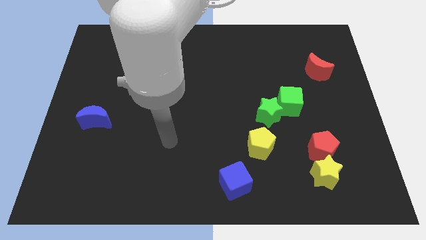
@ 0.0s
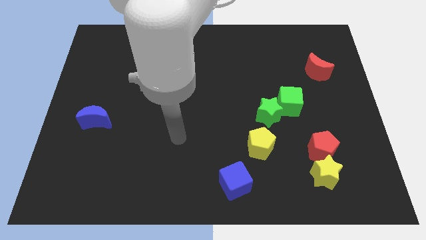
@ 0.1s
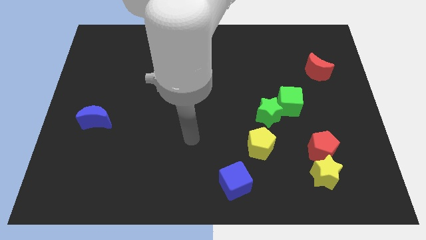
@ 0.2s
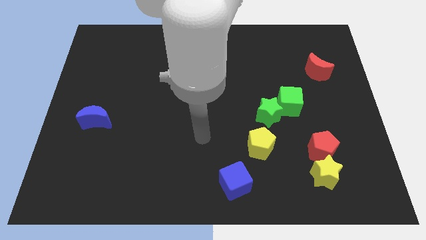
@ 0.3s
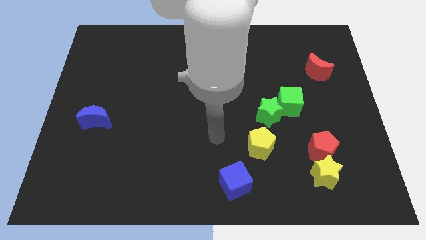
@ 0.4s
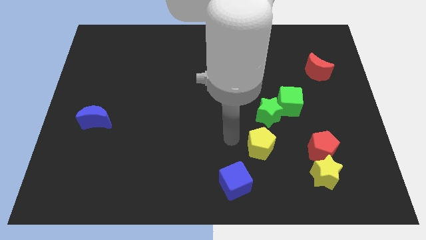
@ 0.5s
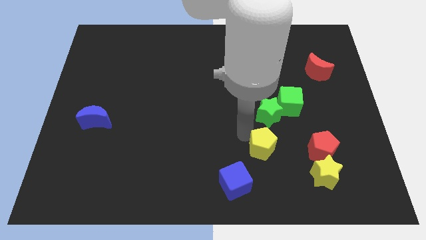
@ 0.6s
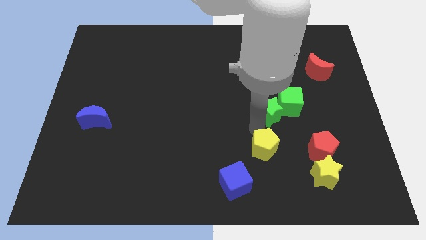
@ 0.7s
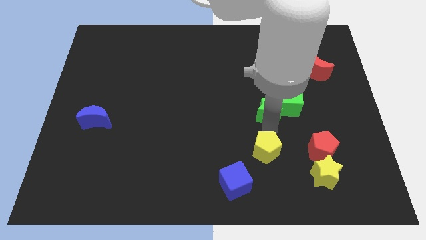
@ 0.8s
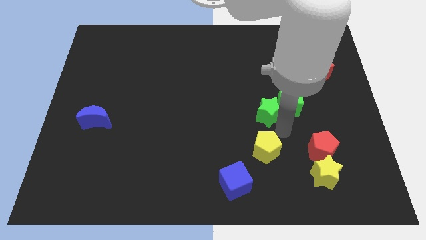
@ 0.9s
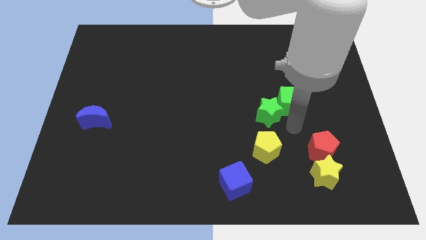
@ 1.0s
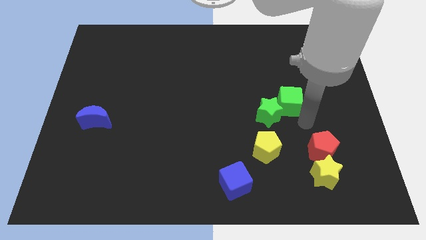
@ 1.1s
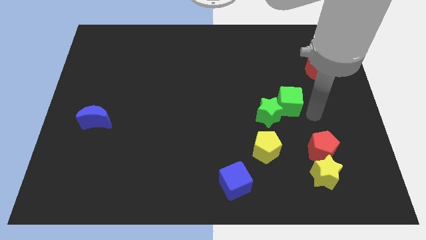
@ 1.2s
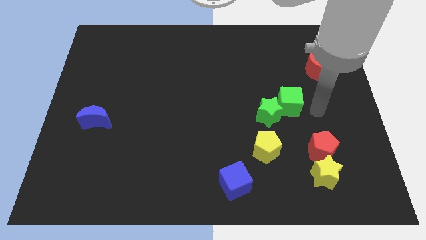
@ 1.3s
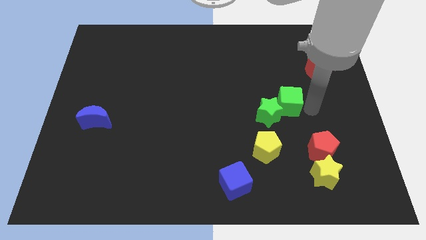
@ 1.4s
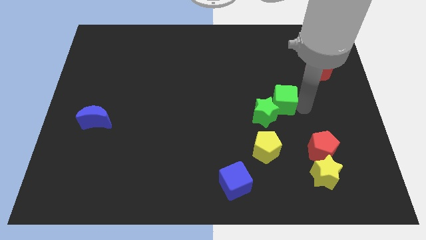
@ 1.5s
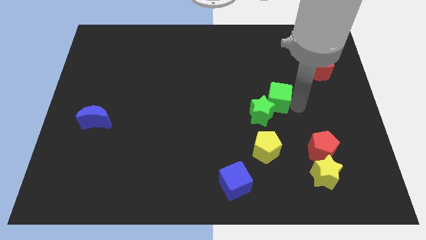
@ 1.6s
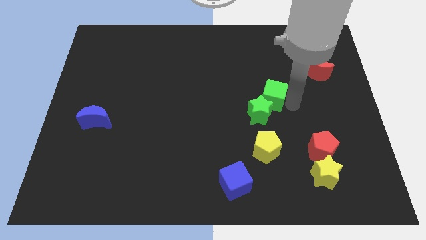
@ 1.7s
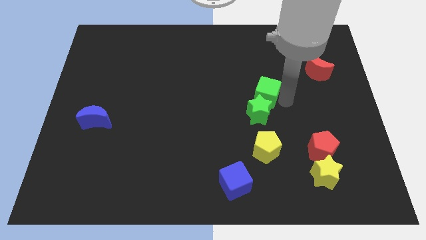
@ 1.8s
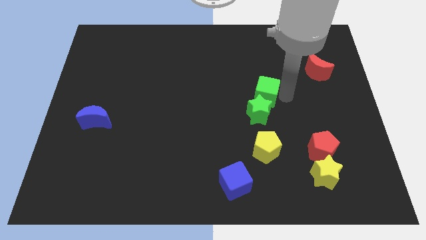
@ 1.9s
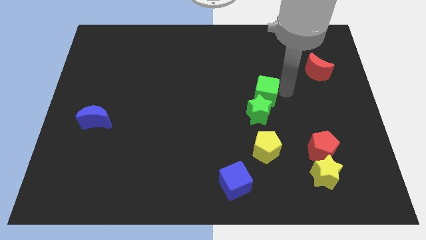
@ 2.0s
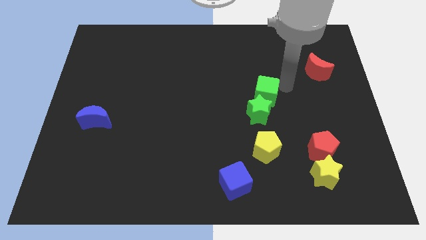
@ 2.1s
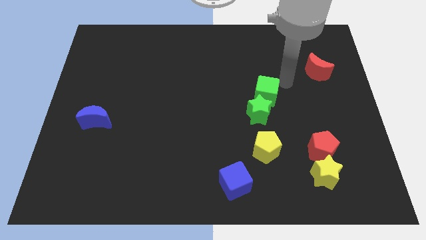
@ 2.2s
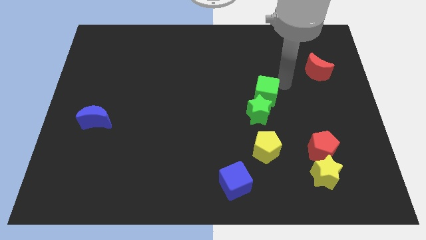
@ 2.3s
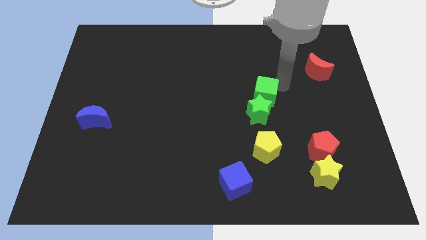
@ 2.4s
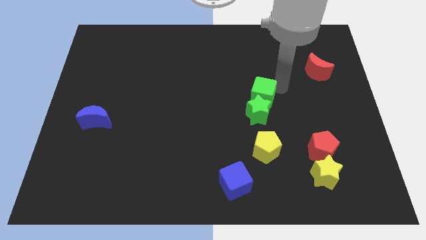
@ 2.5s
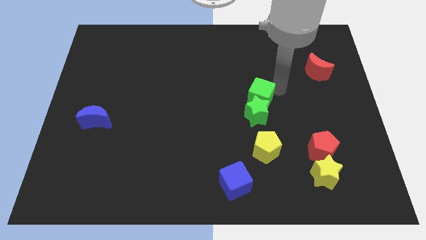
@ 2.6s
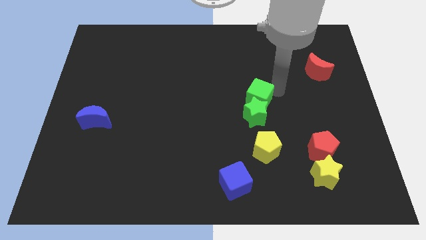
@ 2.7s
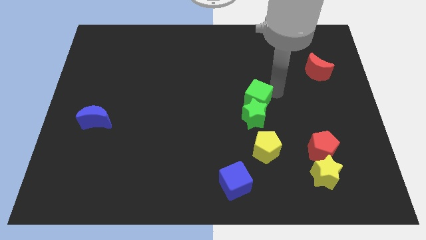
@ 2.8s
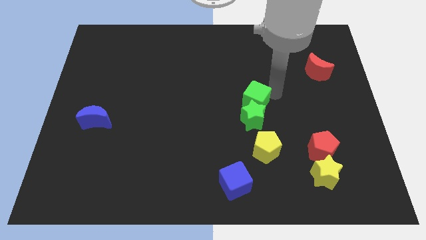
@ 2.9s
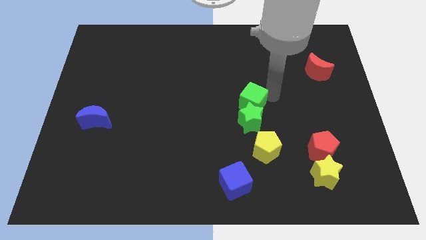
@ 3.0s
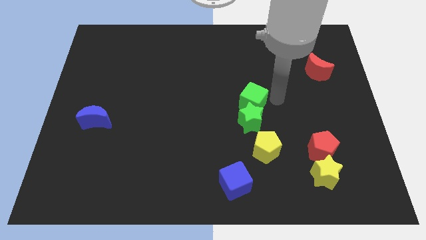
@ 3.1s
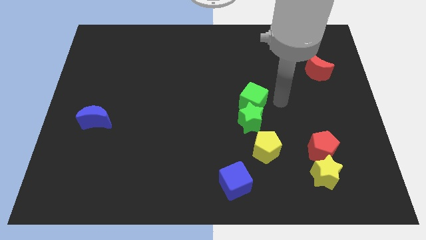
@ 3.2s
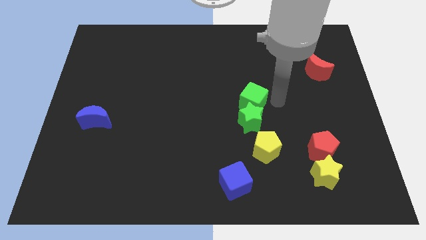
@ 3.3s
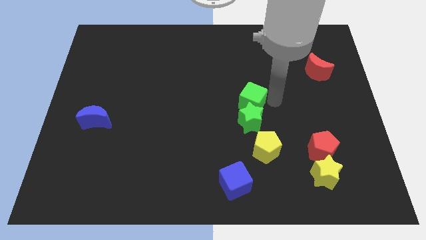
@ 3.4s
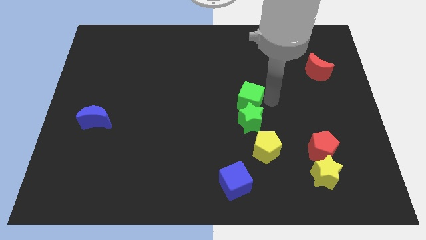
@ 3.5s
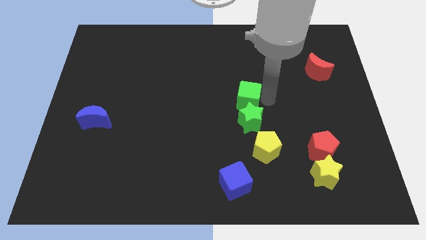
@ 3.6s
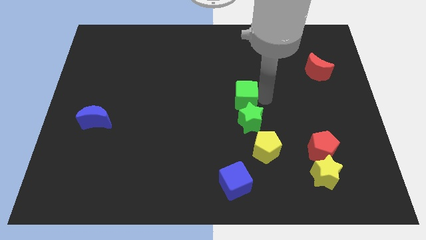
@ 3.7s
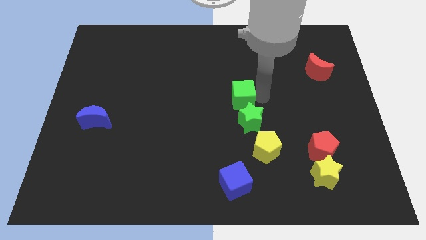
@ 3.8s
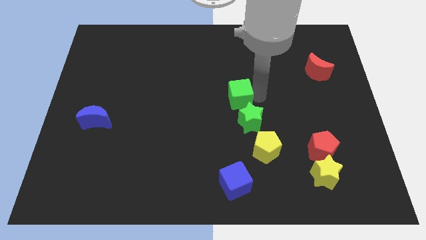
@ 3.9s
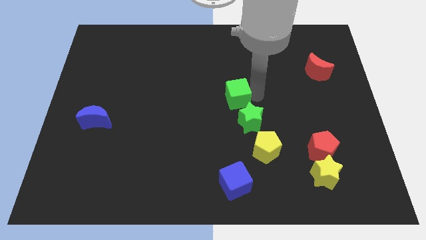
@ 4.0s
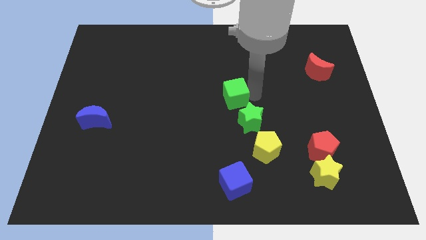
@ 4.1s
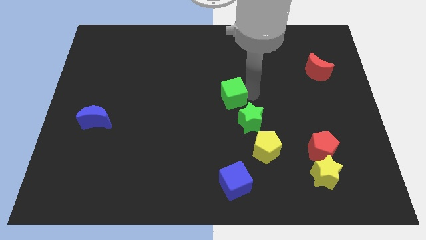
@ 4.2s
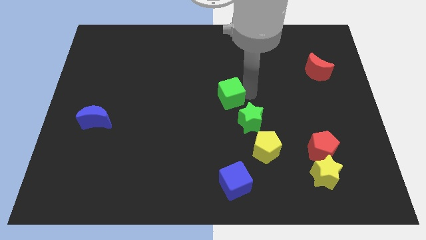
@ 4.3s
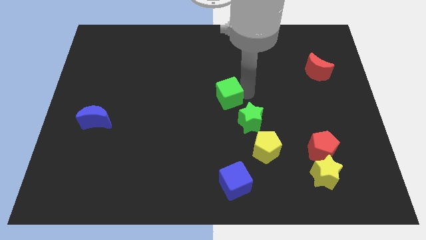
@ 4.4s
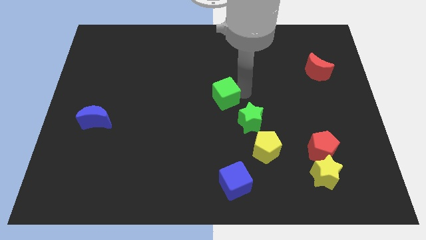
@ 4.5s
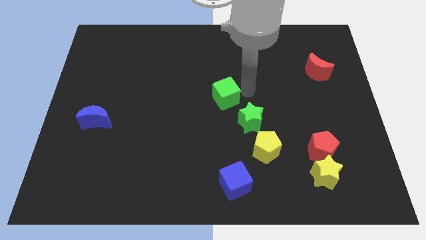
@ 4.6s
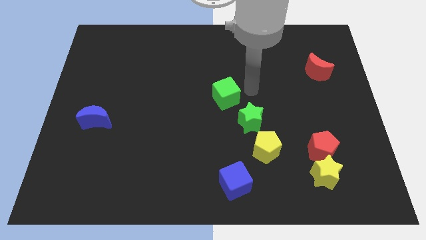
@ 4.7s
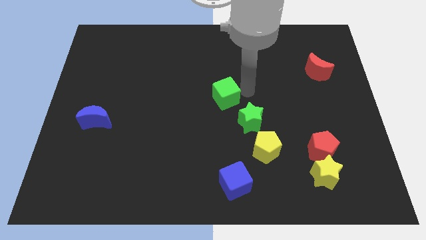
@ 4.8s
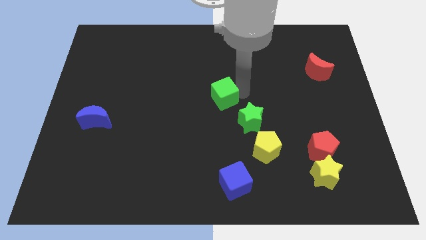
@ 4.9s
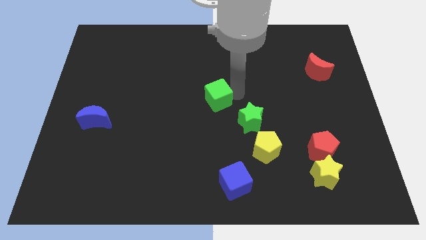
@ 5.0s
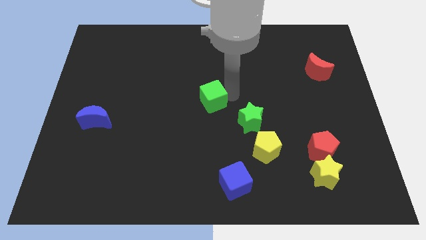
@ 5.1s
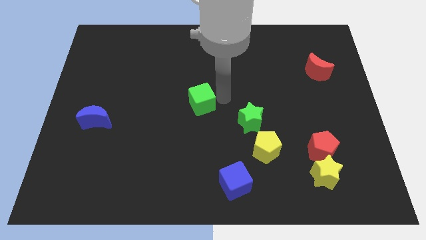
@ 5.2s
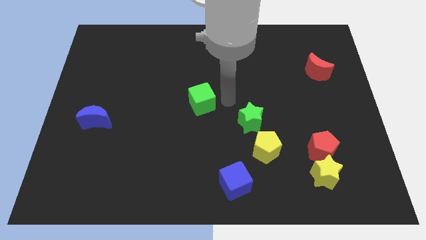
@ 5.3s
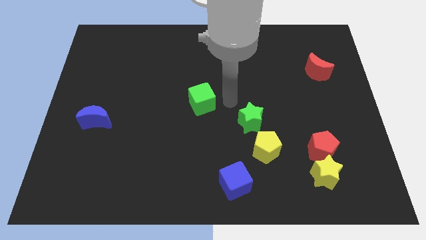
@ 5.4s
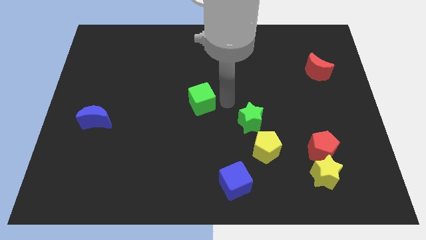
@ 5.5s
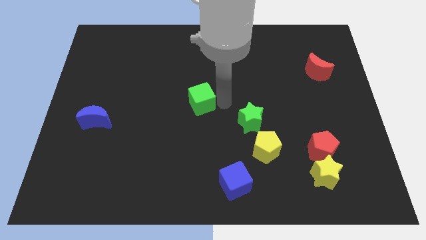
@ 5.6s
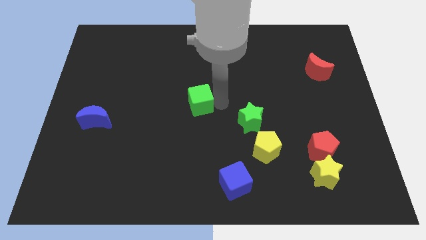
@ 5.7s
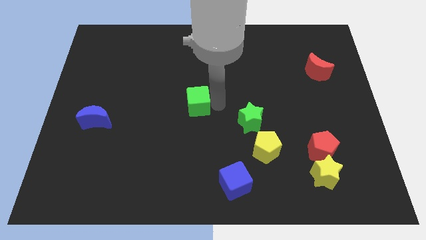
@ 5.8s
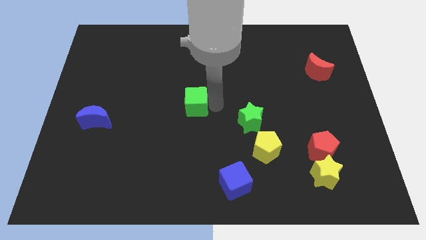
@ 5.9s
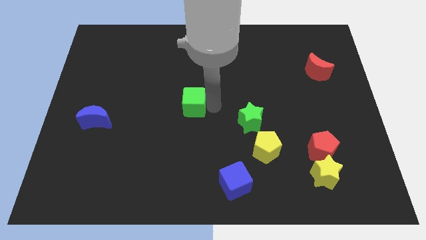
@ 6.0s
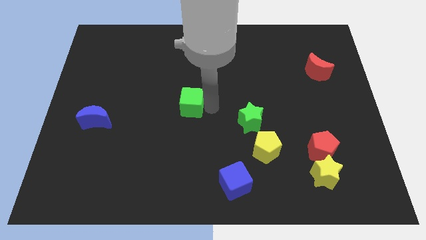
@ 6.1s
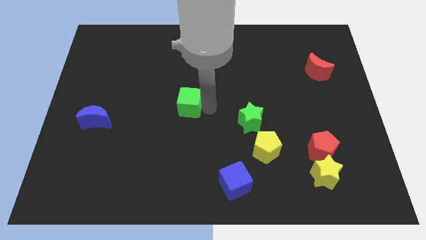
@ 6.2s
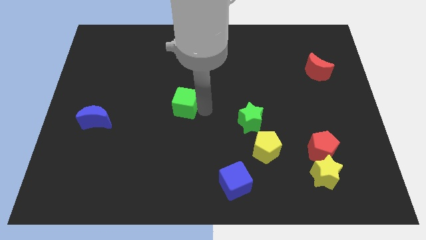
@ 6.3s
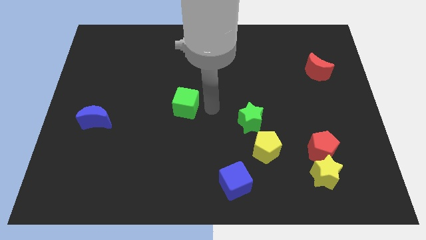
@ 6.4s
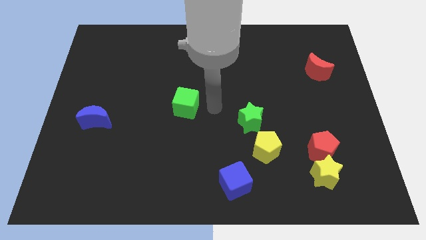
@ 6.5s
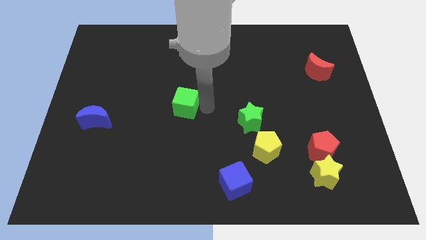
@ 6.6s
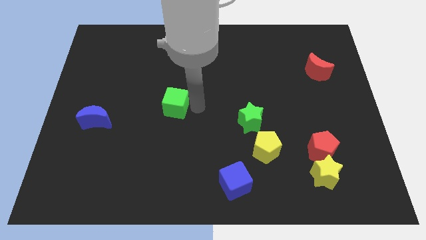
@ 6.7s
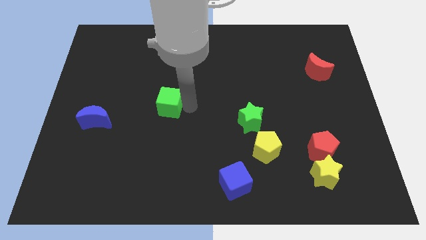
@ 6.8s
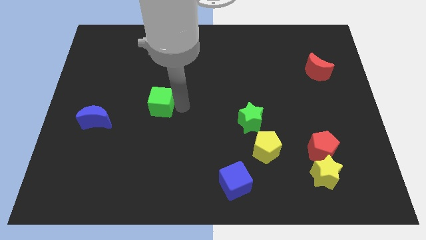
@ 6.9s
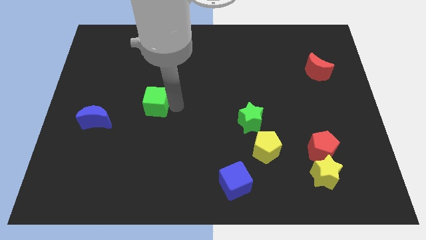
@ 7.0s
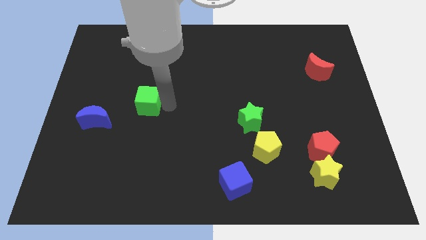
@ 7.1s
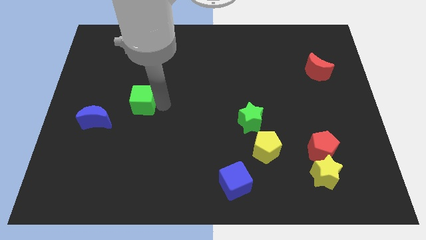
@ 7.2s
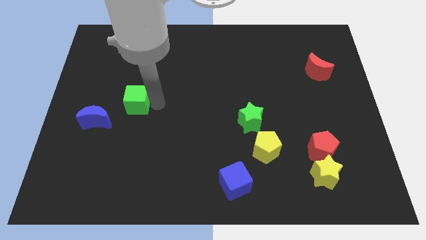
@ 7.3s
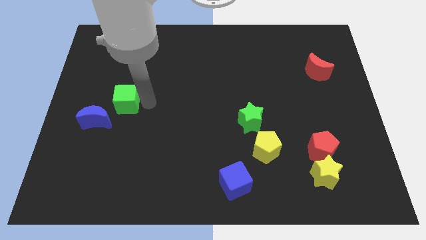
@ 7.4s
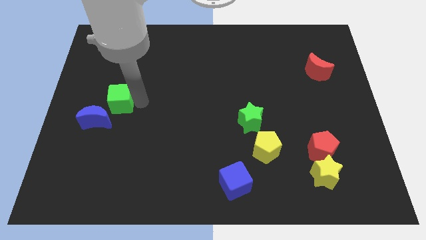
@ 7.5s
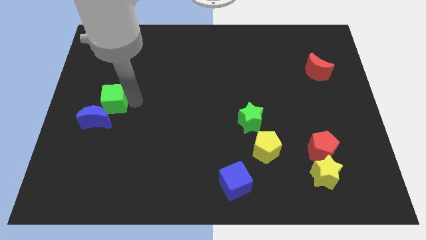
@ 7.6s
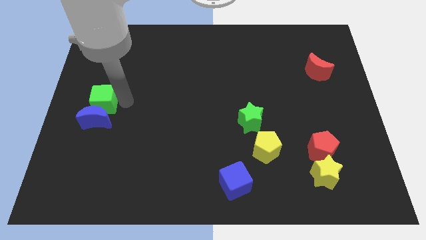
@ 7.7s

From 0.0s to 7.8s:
put the green cube to the center left
